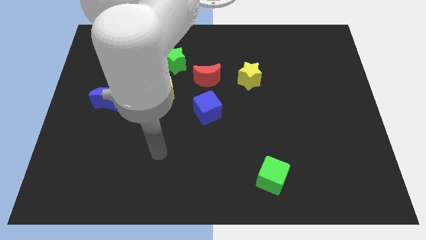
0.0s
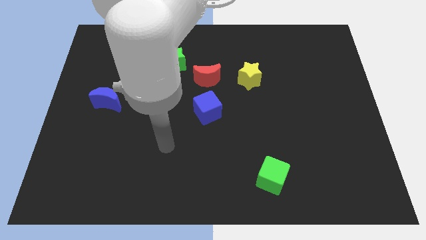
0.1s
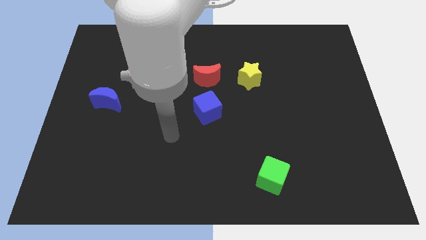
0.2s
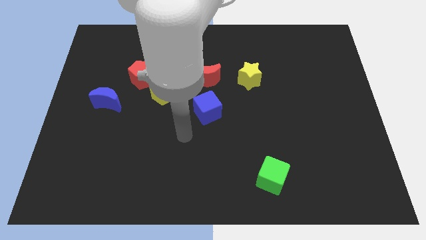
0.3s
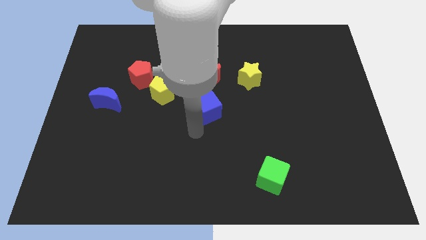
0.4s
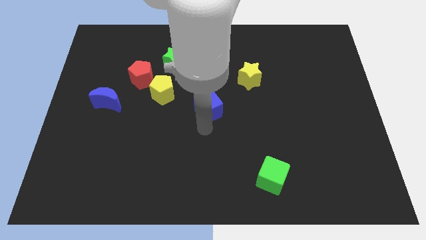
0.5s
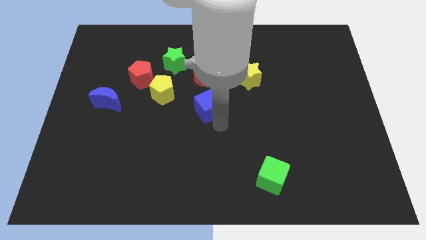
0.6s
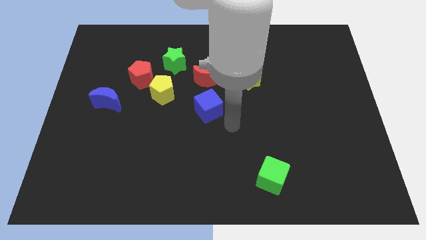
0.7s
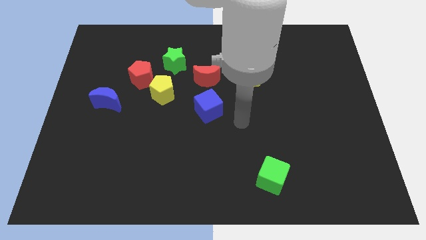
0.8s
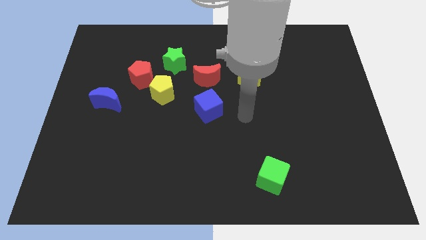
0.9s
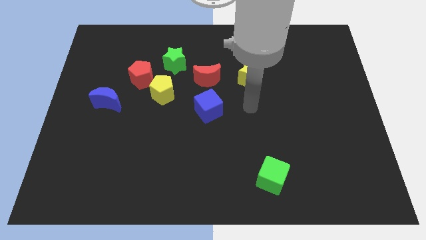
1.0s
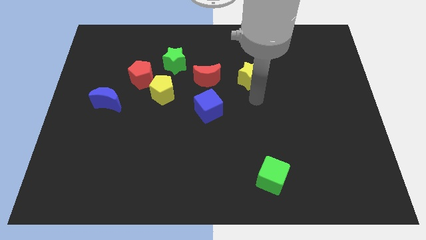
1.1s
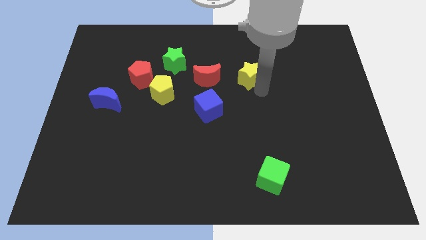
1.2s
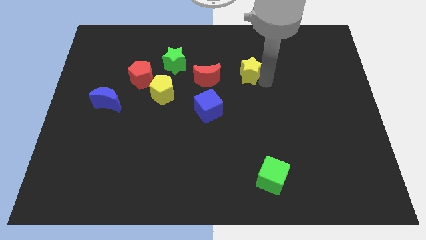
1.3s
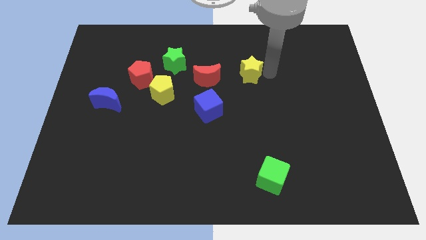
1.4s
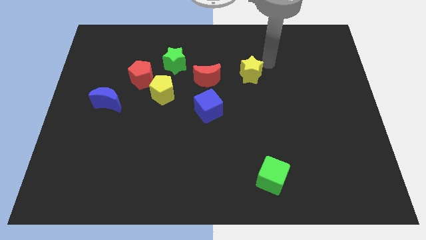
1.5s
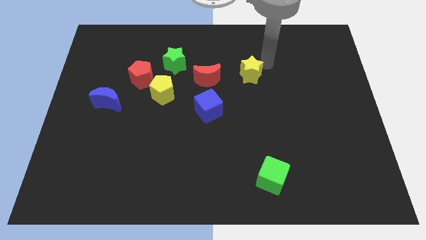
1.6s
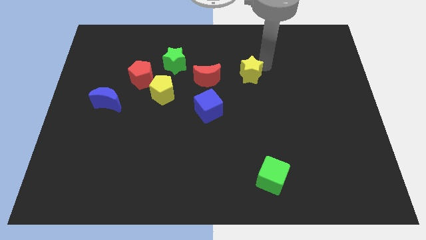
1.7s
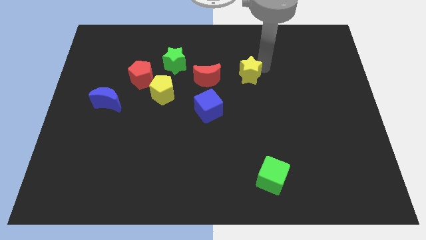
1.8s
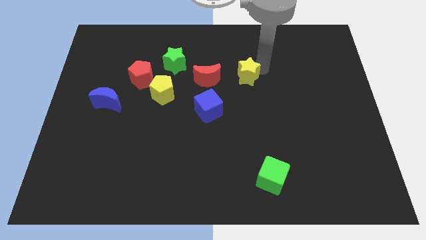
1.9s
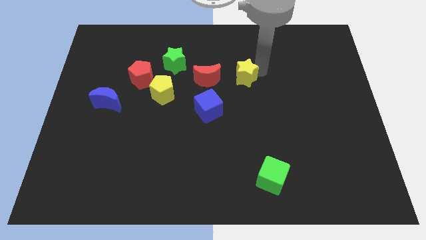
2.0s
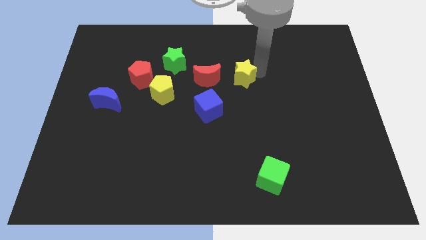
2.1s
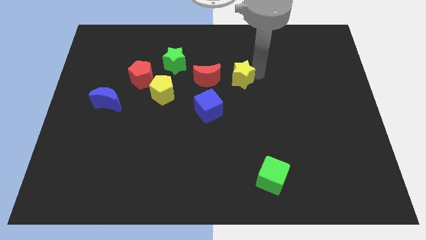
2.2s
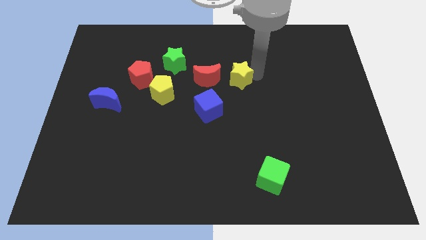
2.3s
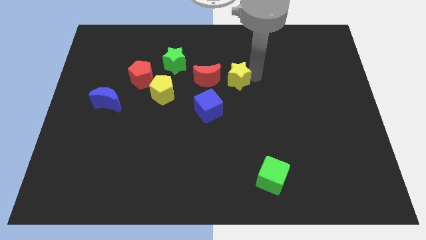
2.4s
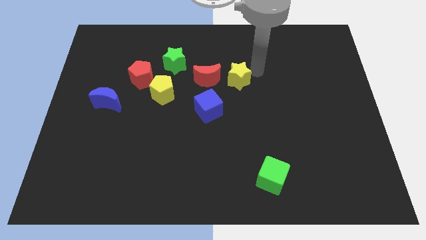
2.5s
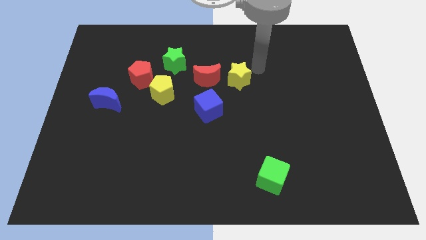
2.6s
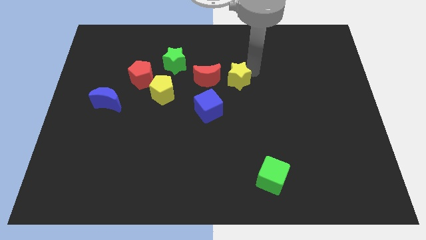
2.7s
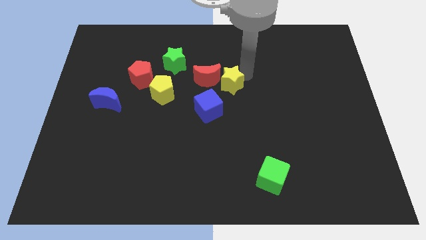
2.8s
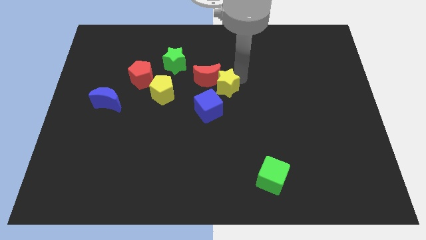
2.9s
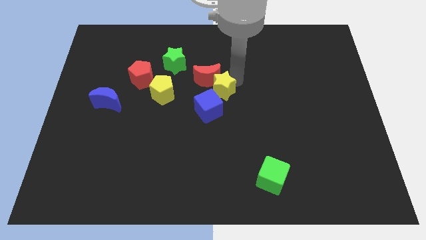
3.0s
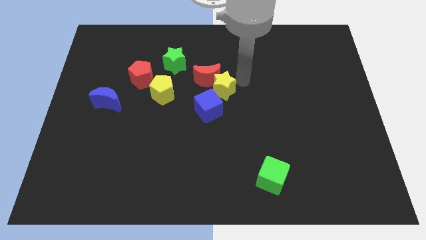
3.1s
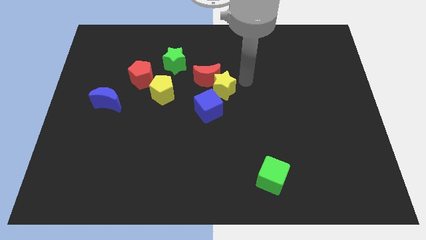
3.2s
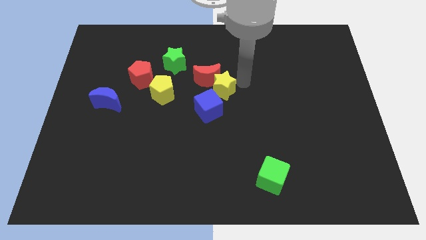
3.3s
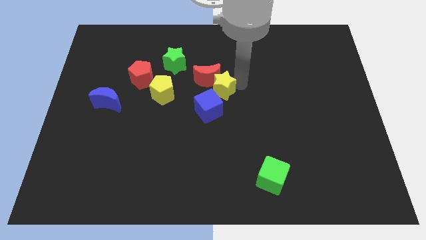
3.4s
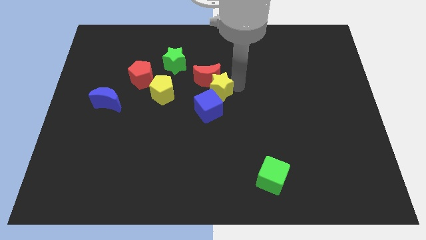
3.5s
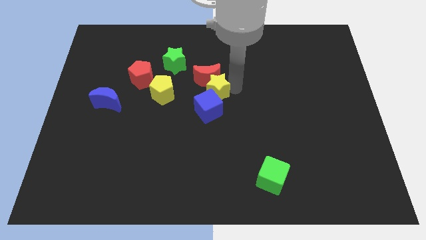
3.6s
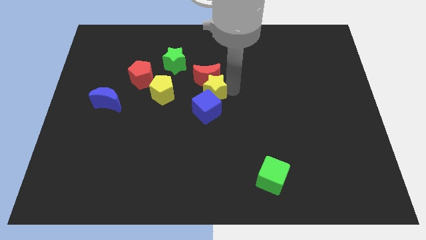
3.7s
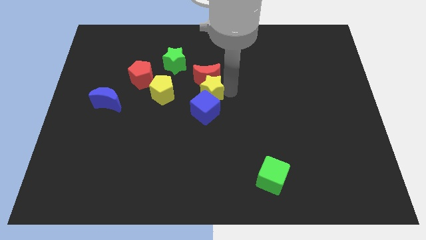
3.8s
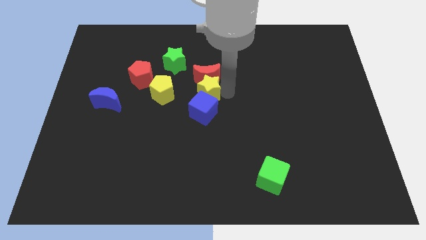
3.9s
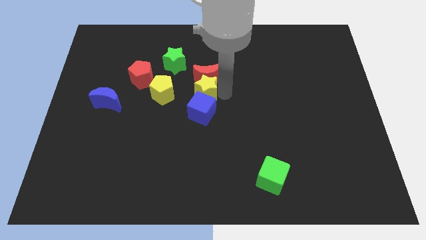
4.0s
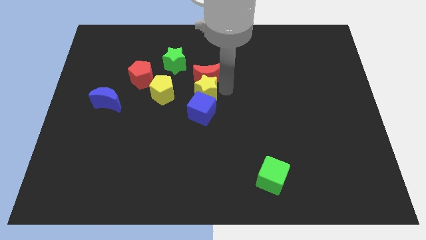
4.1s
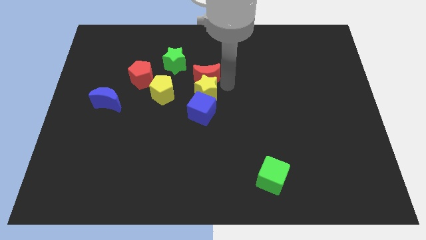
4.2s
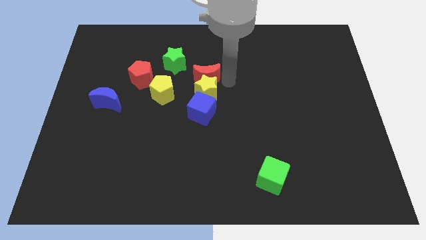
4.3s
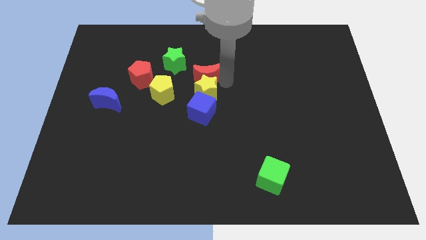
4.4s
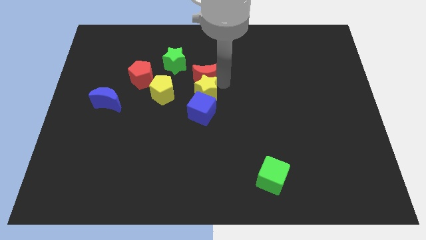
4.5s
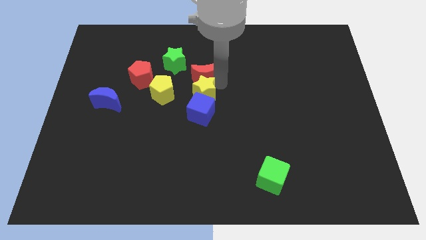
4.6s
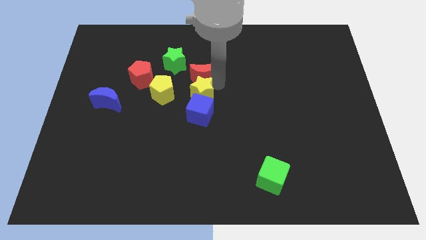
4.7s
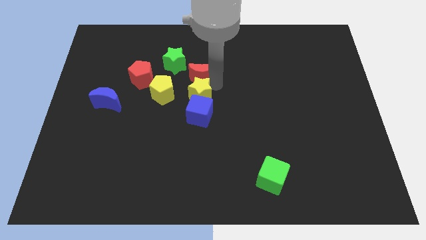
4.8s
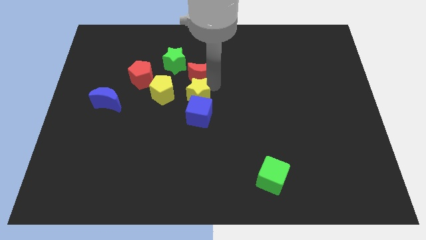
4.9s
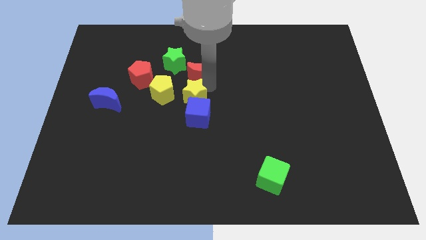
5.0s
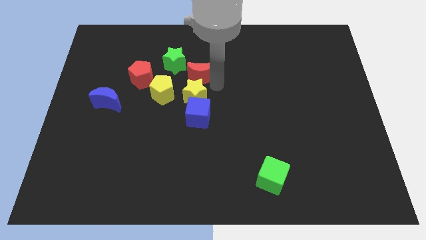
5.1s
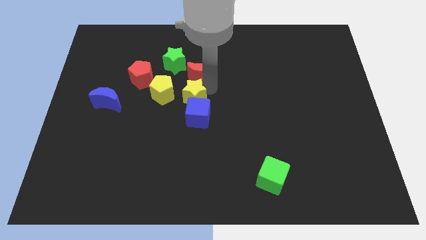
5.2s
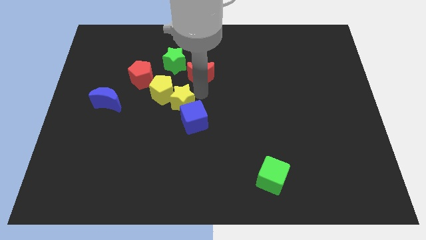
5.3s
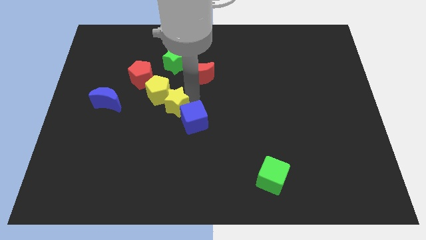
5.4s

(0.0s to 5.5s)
push the yellow star left of the blue cube

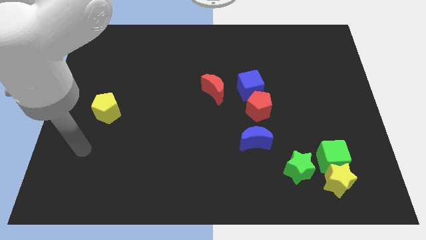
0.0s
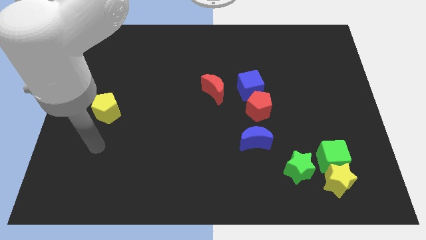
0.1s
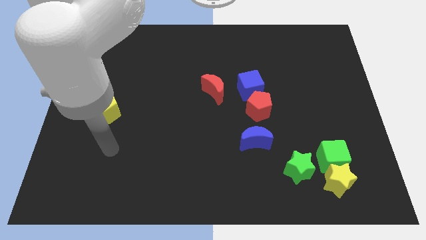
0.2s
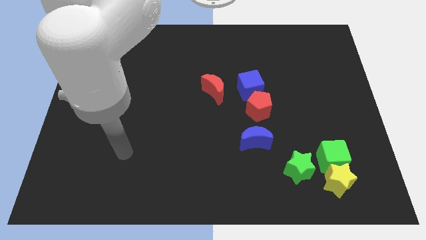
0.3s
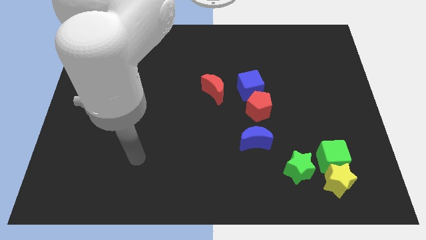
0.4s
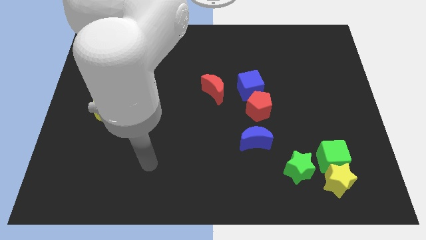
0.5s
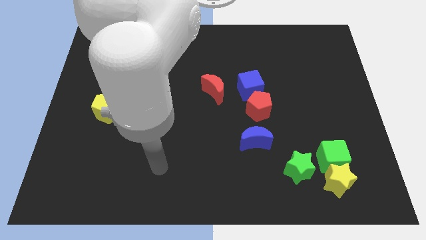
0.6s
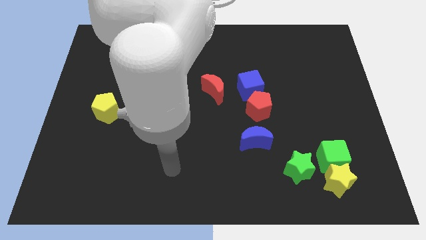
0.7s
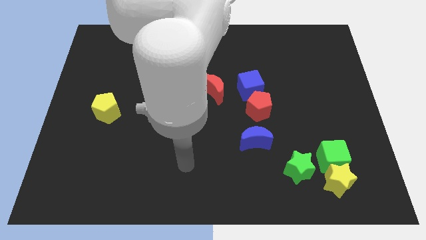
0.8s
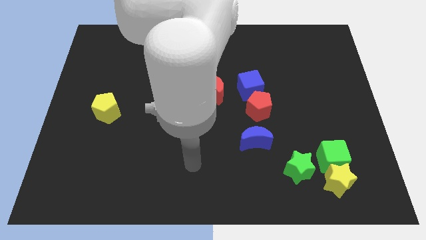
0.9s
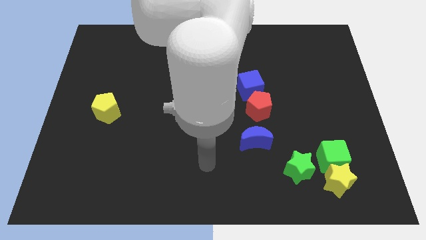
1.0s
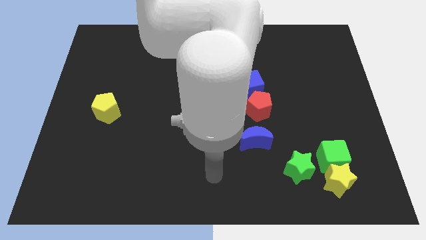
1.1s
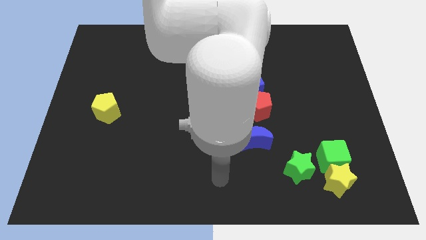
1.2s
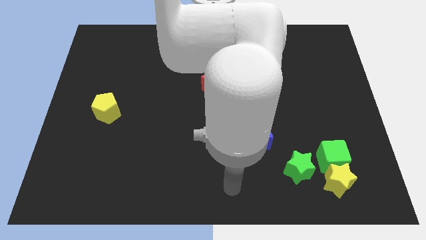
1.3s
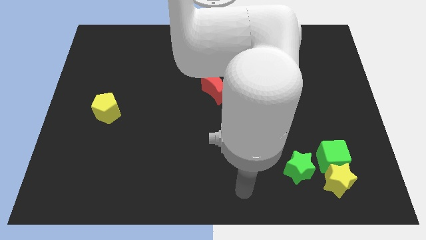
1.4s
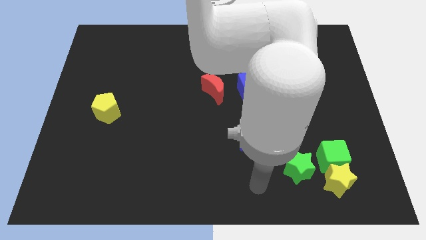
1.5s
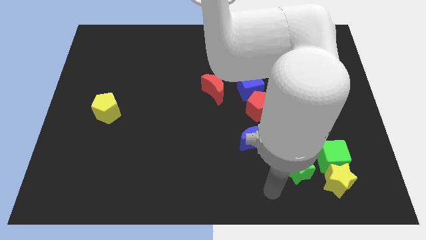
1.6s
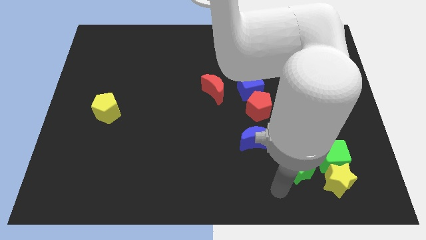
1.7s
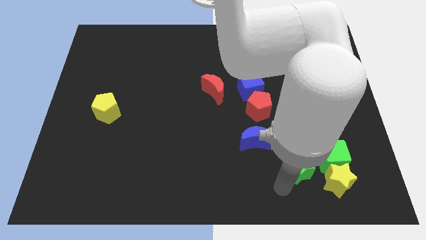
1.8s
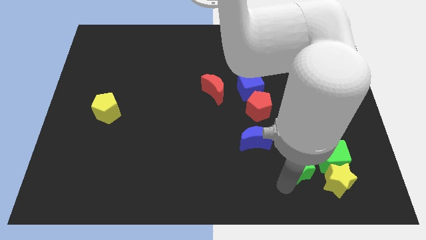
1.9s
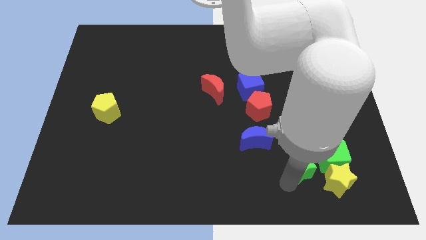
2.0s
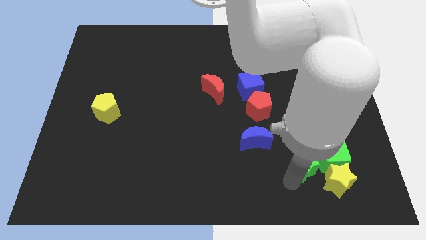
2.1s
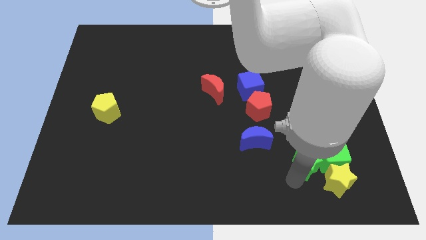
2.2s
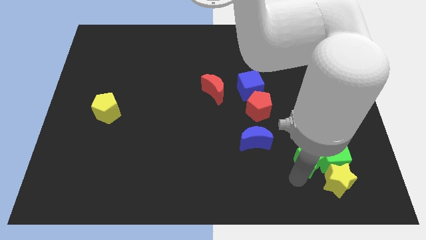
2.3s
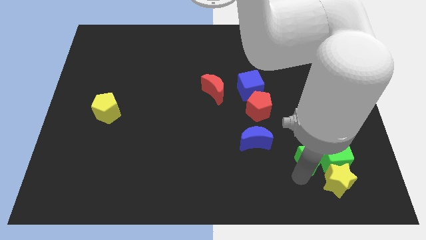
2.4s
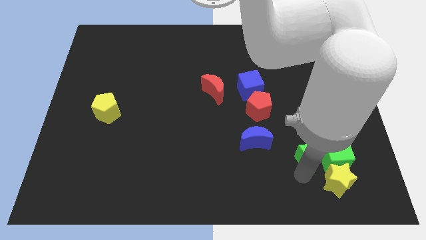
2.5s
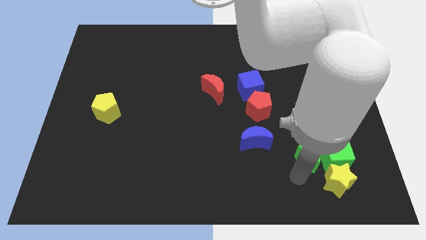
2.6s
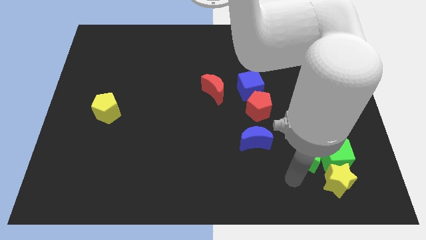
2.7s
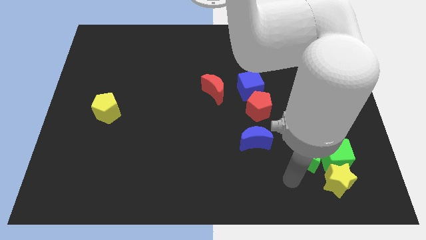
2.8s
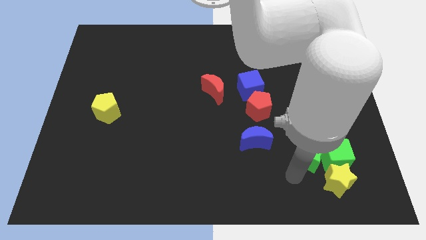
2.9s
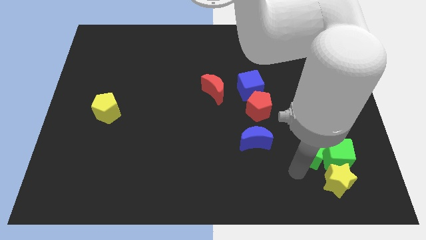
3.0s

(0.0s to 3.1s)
slide the green star to the top side of the yellow star
